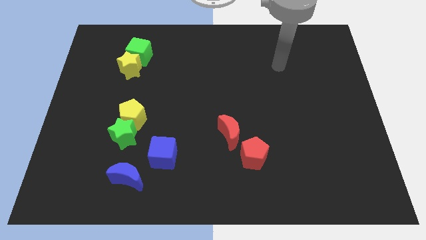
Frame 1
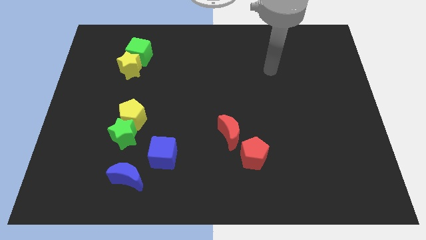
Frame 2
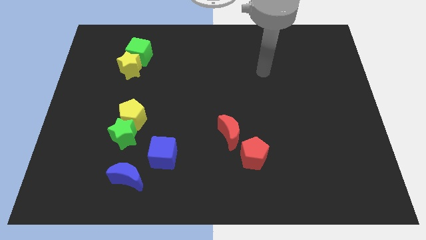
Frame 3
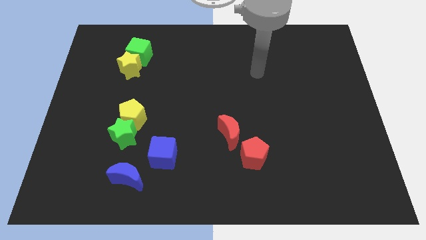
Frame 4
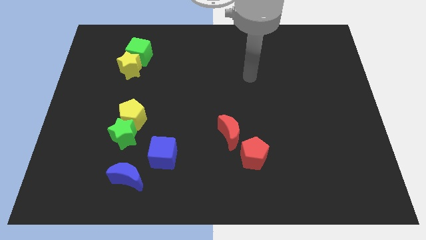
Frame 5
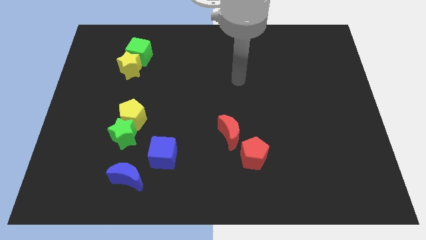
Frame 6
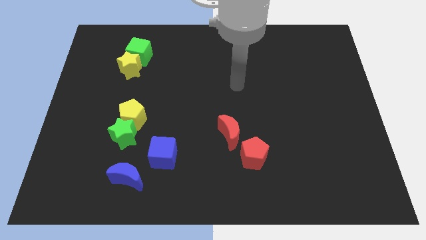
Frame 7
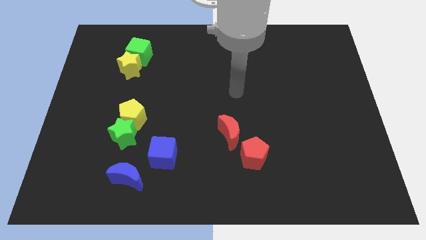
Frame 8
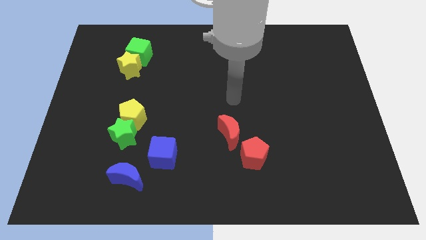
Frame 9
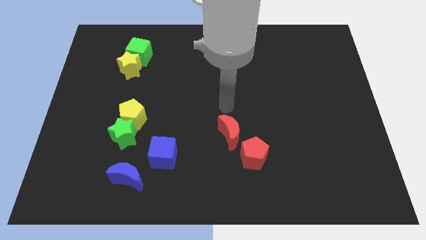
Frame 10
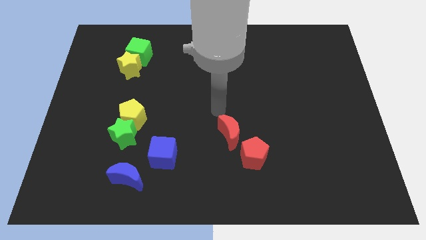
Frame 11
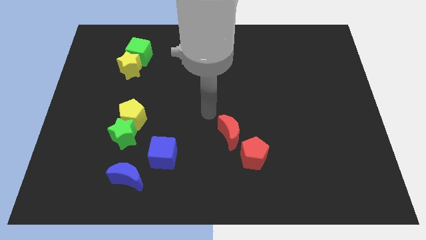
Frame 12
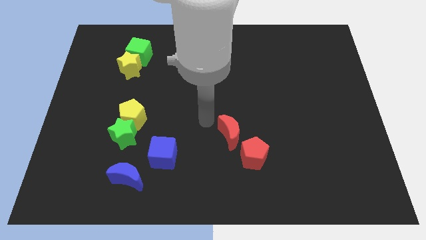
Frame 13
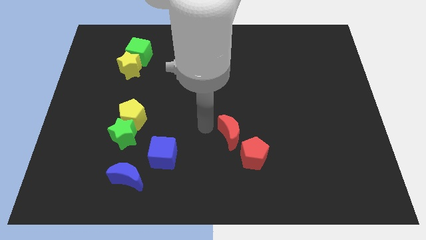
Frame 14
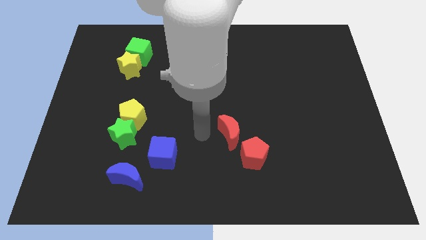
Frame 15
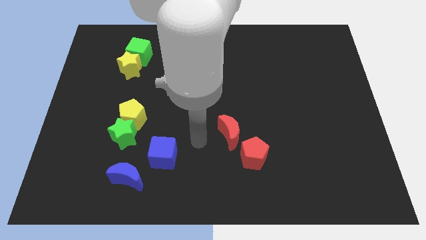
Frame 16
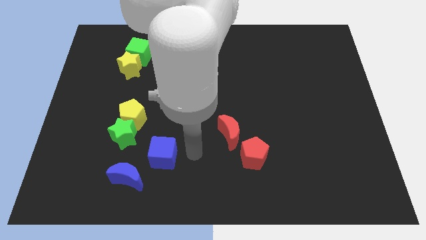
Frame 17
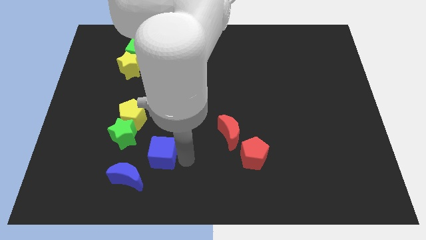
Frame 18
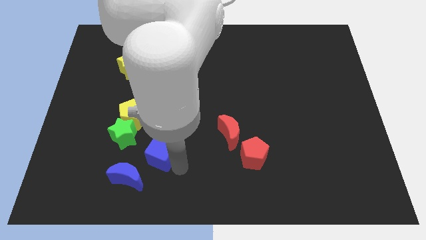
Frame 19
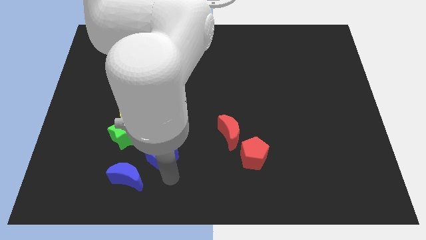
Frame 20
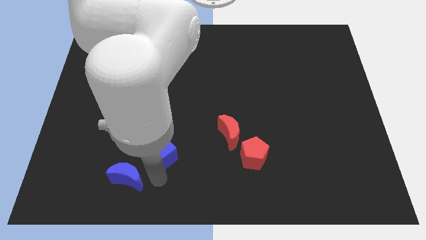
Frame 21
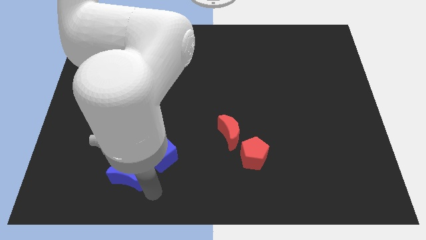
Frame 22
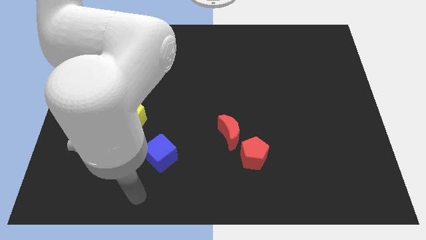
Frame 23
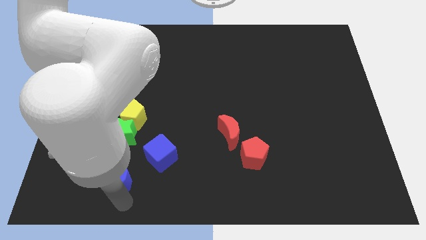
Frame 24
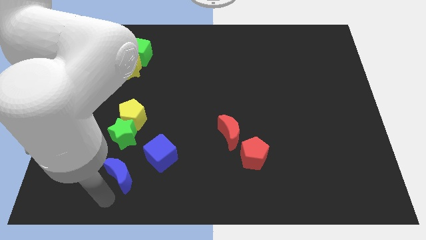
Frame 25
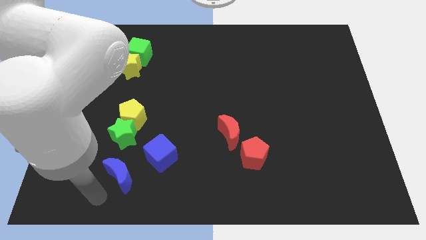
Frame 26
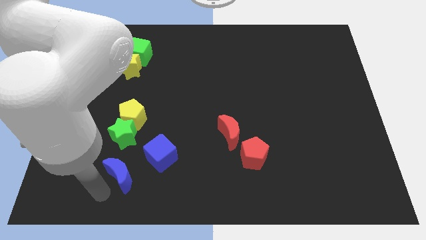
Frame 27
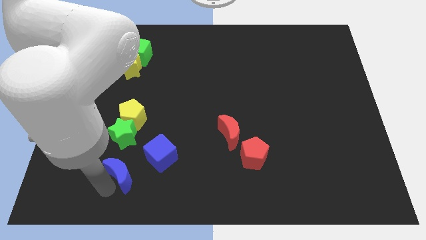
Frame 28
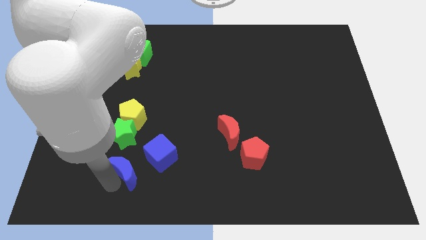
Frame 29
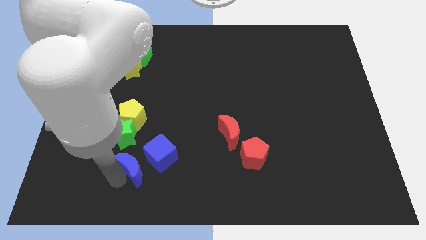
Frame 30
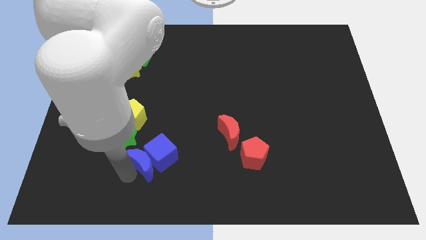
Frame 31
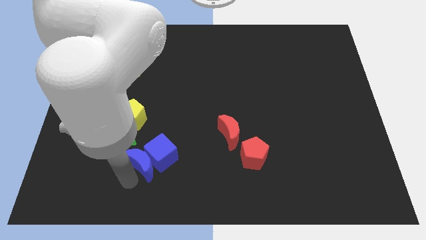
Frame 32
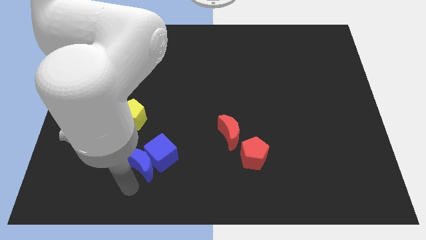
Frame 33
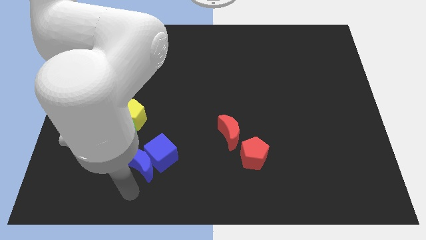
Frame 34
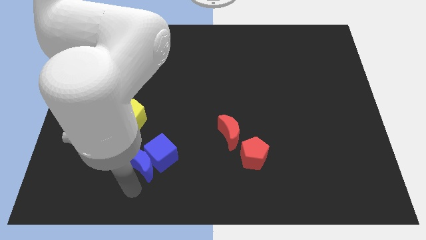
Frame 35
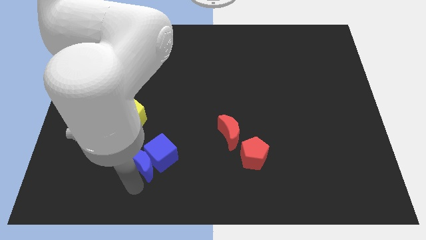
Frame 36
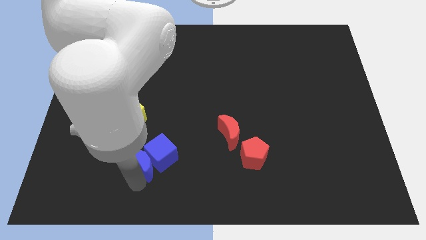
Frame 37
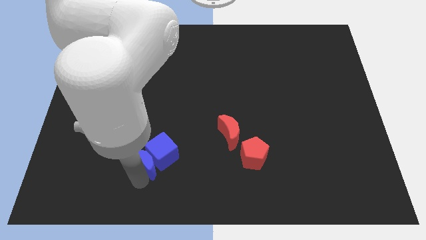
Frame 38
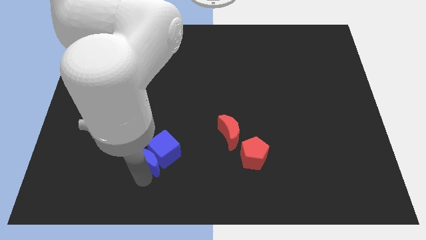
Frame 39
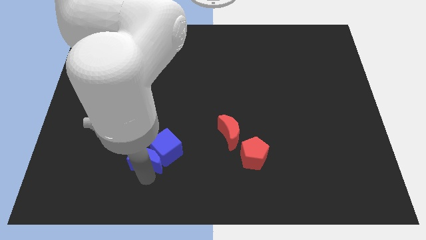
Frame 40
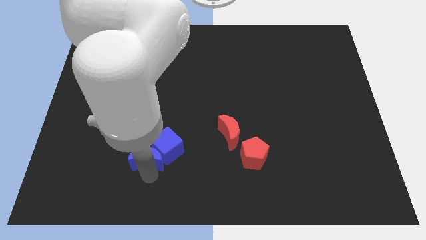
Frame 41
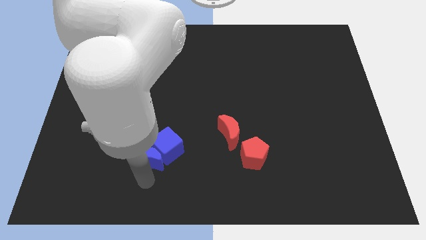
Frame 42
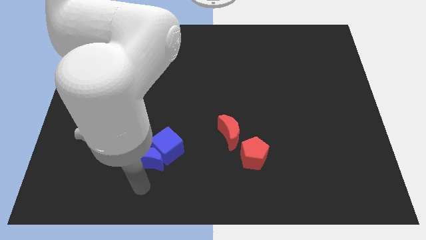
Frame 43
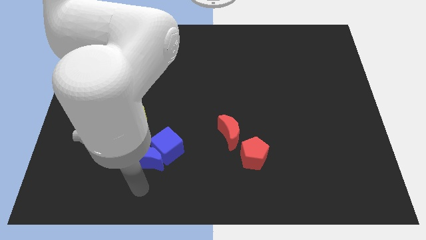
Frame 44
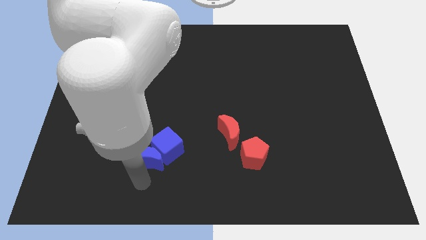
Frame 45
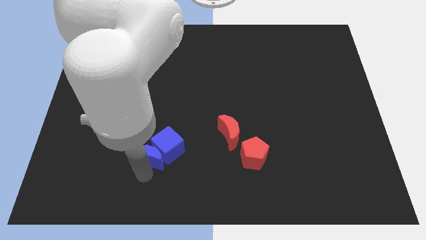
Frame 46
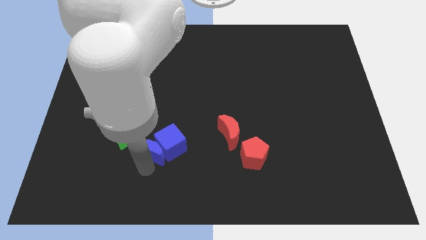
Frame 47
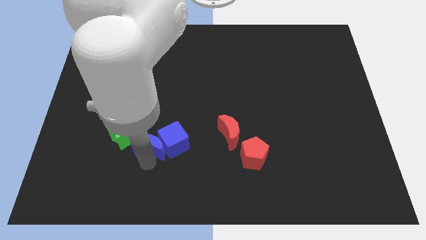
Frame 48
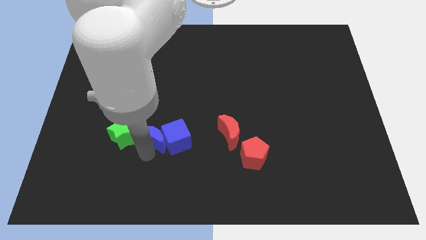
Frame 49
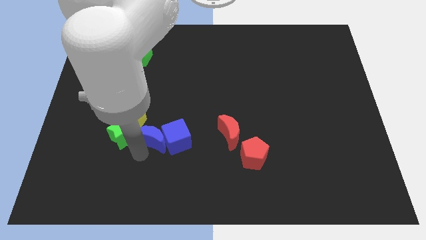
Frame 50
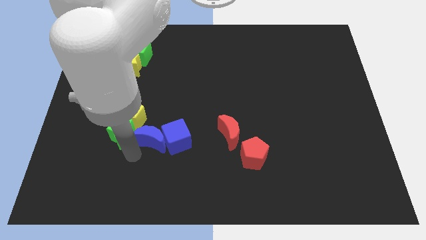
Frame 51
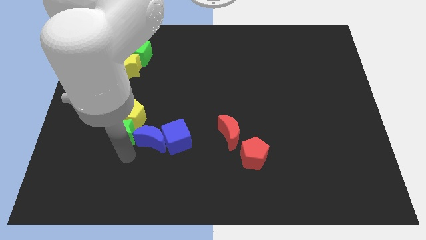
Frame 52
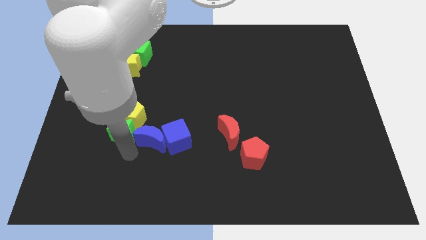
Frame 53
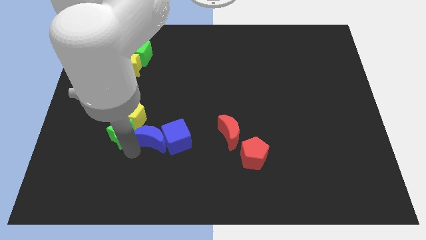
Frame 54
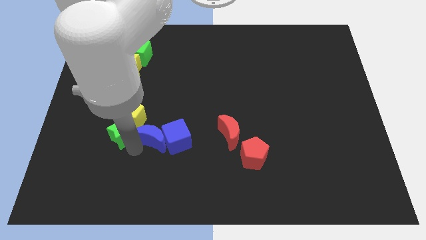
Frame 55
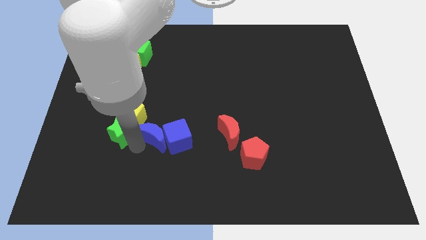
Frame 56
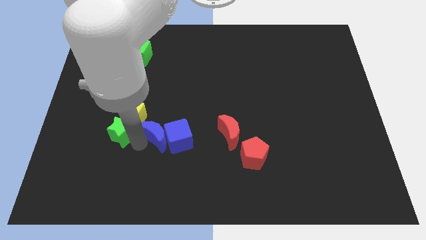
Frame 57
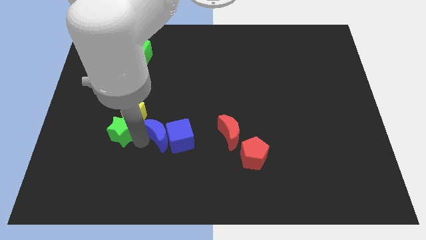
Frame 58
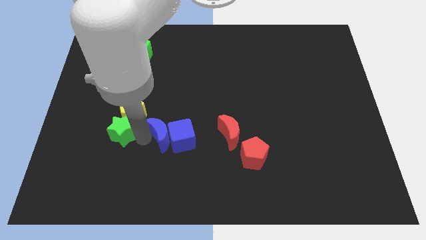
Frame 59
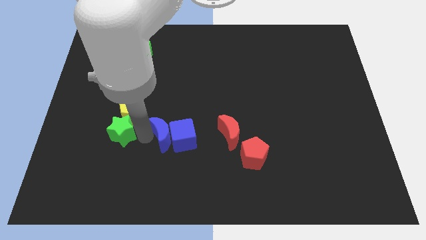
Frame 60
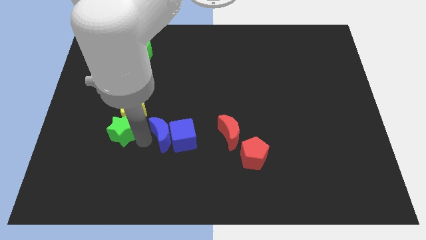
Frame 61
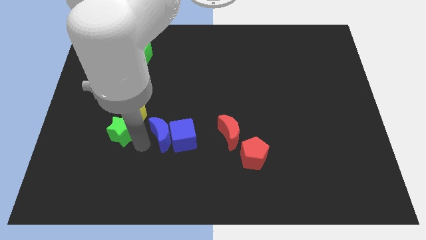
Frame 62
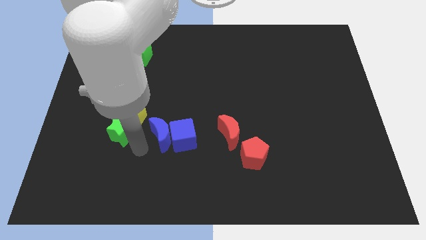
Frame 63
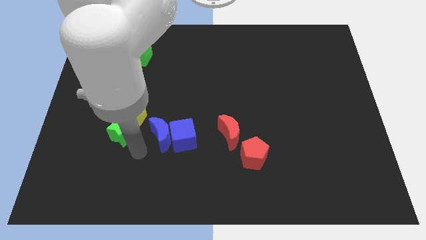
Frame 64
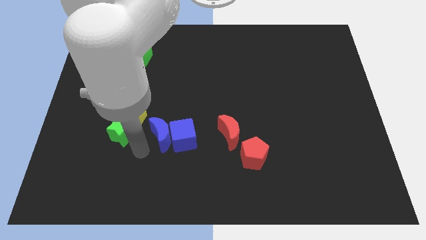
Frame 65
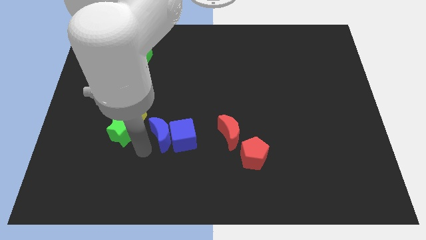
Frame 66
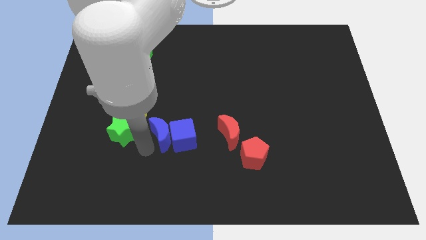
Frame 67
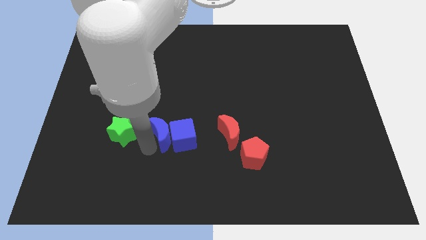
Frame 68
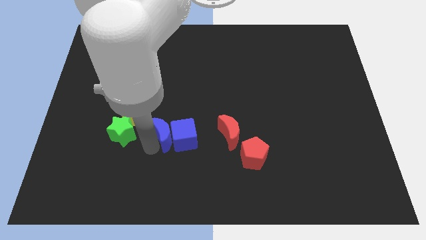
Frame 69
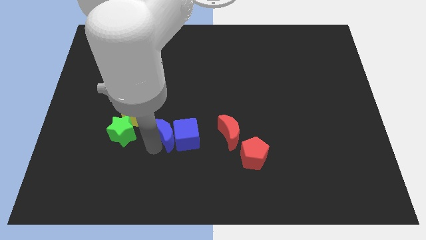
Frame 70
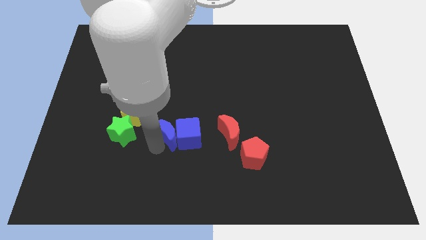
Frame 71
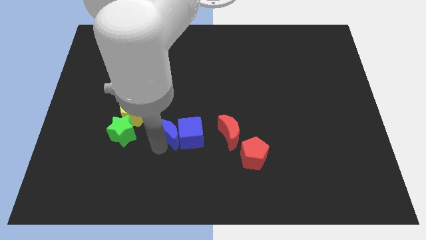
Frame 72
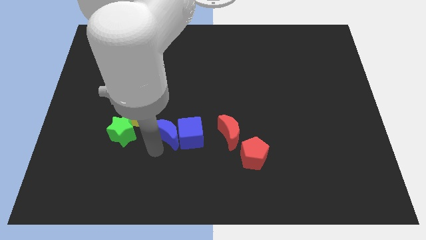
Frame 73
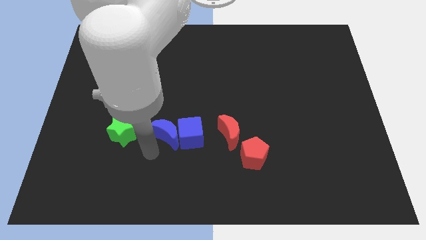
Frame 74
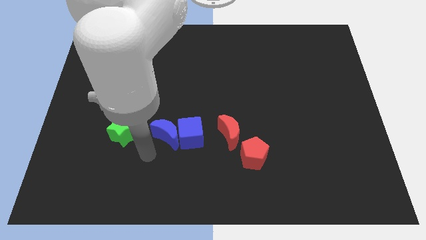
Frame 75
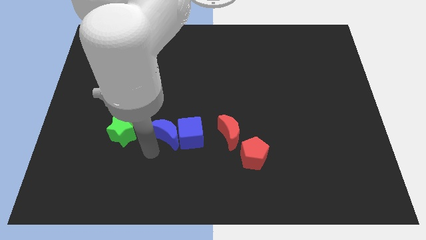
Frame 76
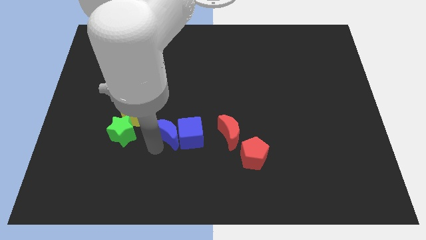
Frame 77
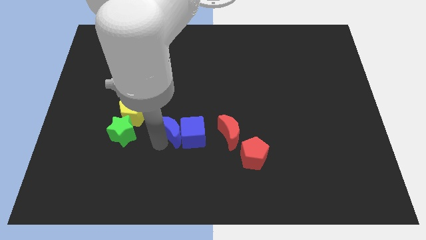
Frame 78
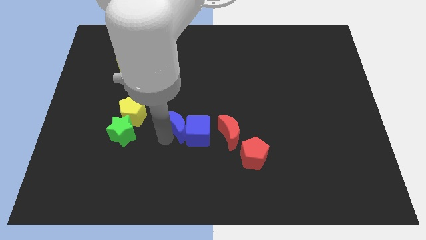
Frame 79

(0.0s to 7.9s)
move the blue moon to the center

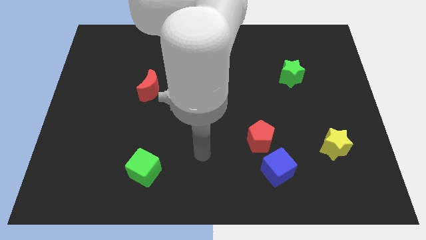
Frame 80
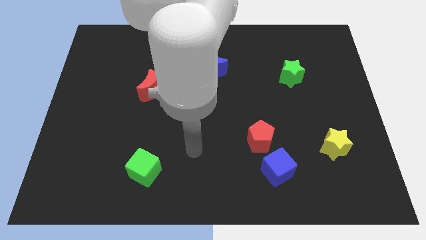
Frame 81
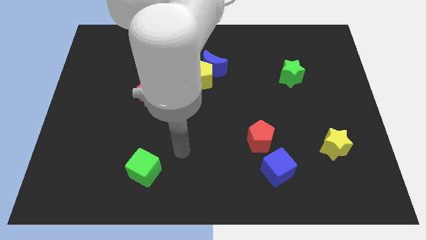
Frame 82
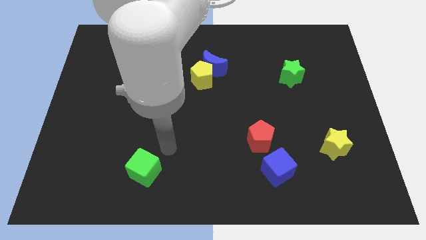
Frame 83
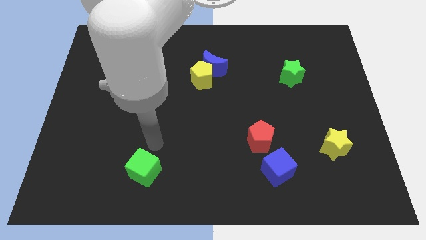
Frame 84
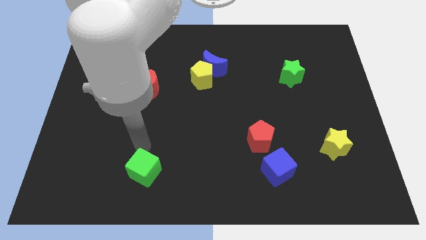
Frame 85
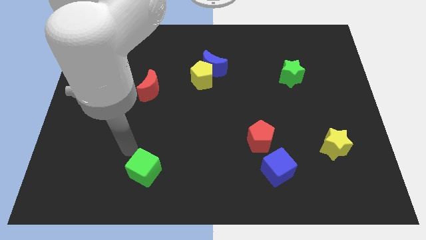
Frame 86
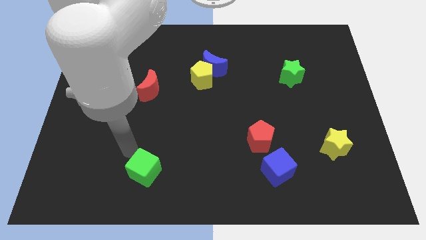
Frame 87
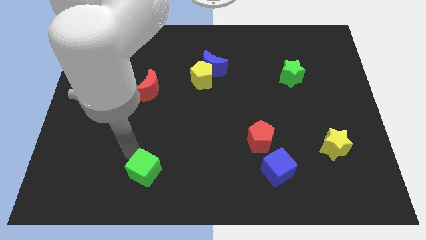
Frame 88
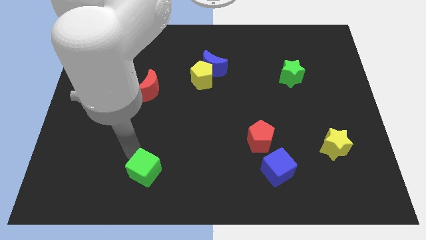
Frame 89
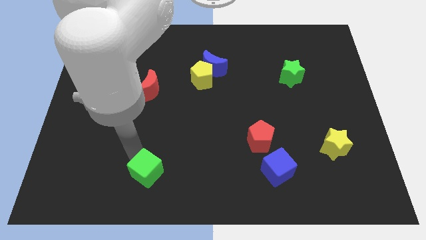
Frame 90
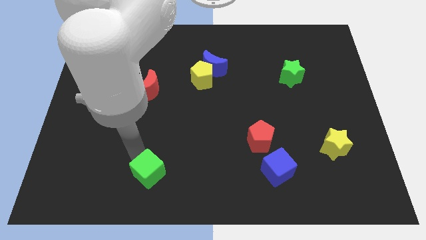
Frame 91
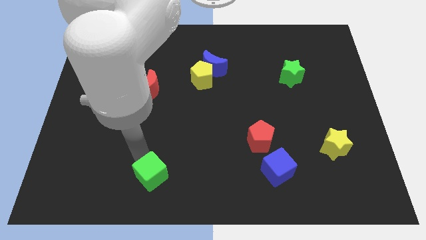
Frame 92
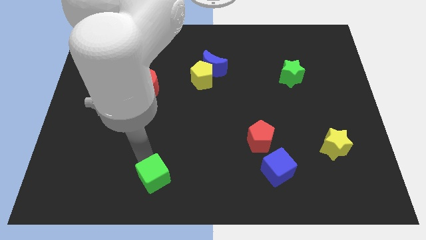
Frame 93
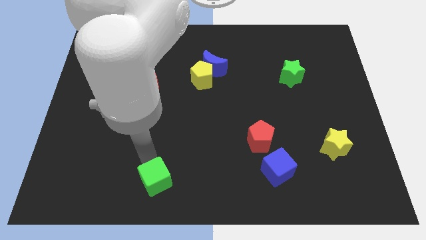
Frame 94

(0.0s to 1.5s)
move the green cube to the bottom
